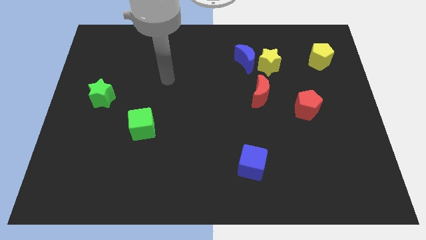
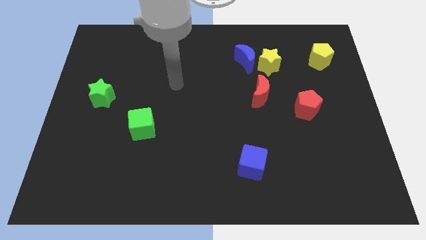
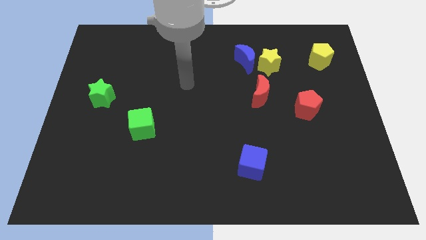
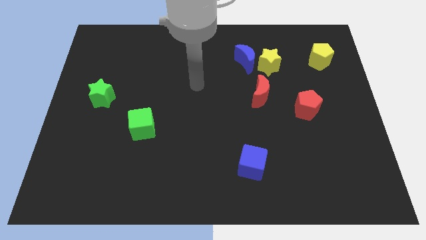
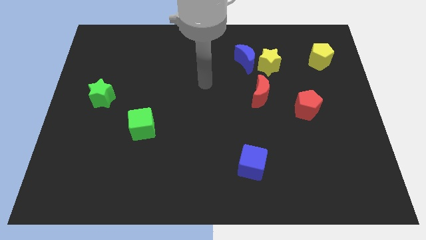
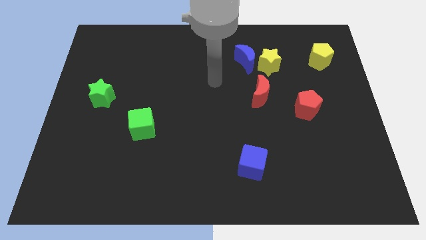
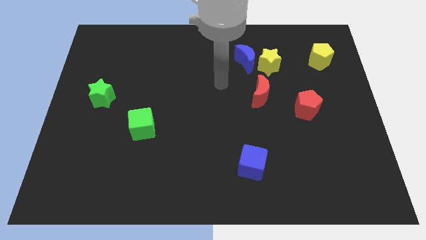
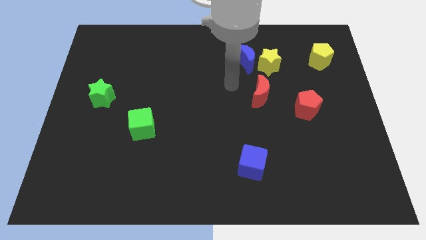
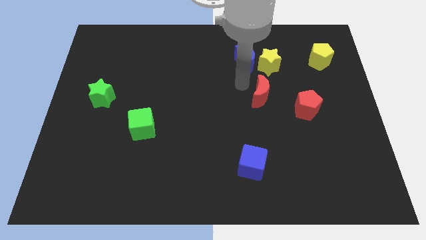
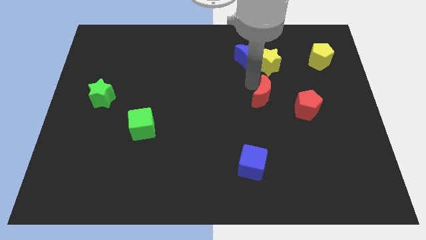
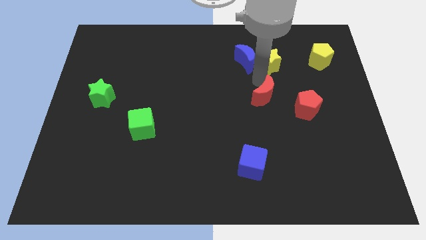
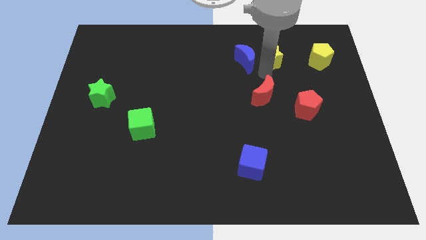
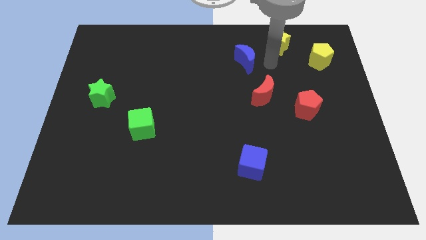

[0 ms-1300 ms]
move the blue moon away from the yellow star

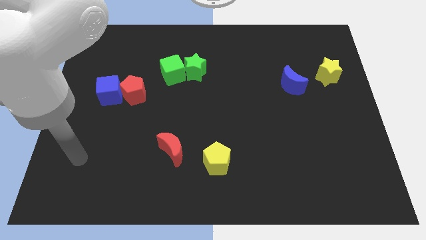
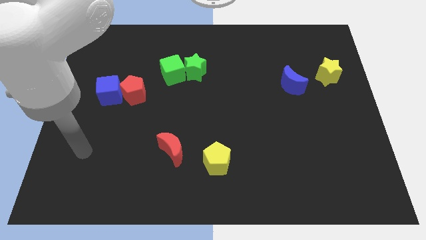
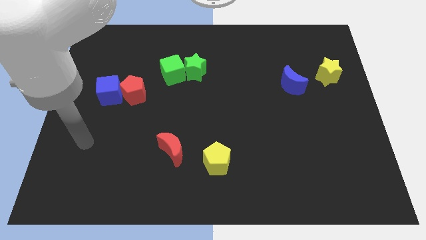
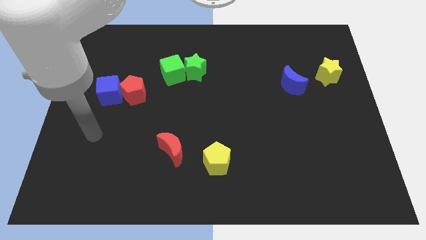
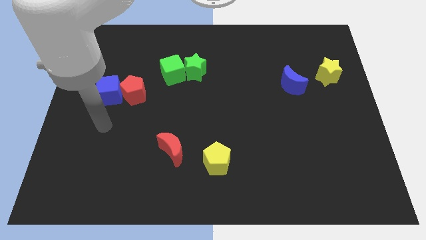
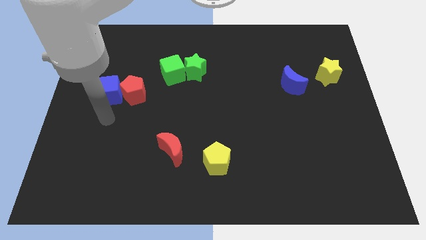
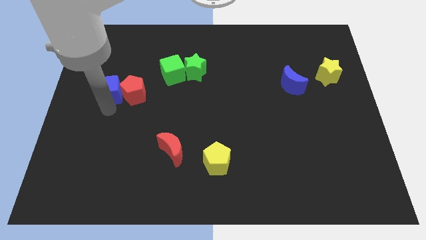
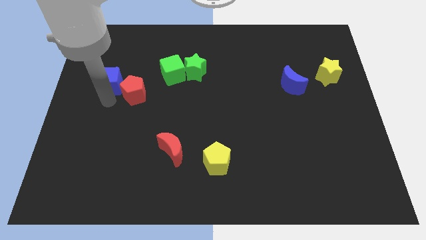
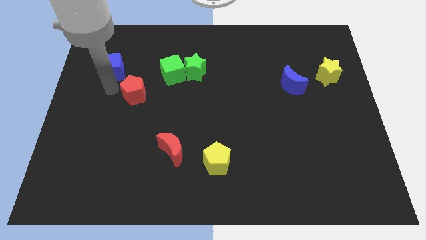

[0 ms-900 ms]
pull the red pentagon apart from the blue cube

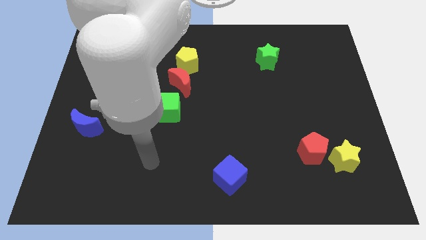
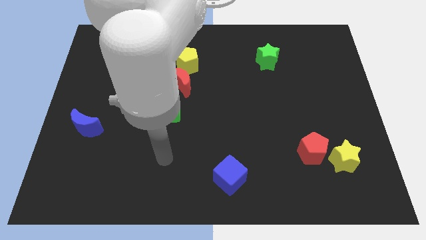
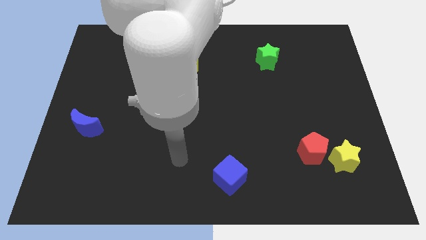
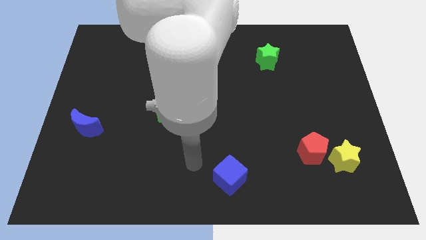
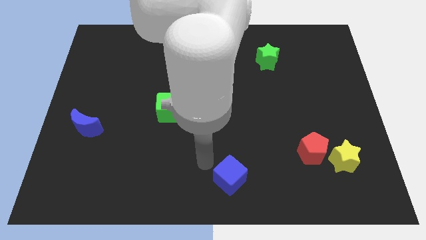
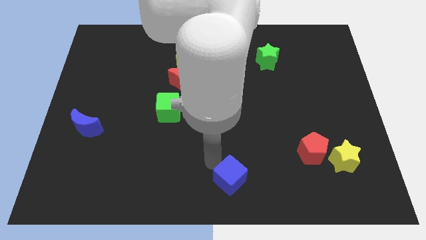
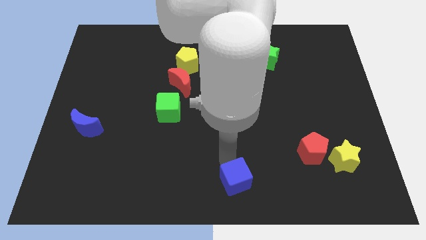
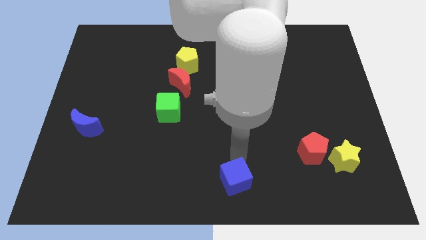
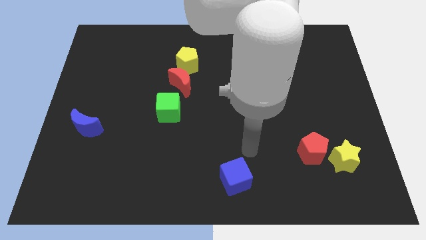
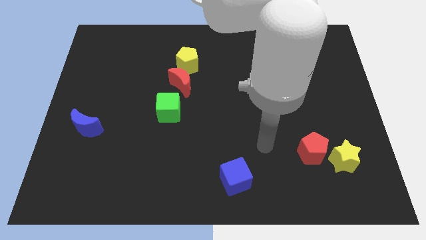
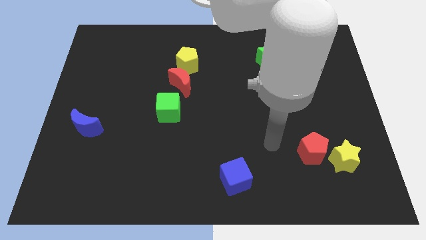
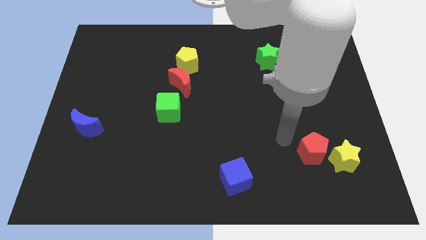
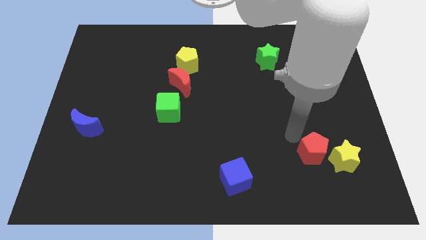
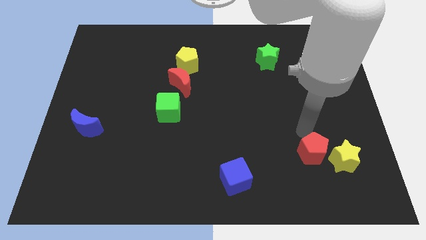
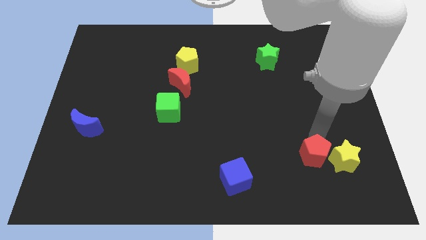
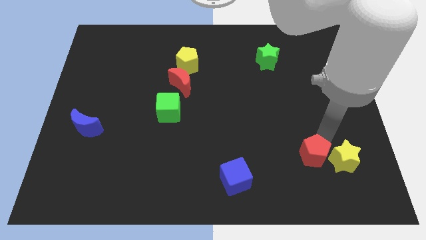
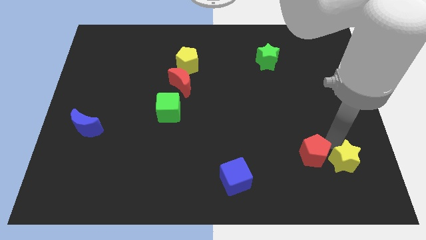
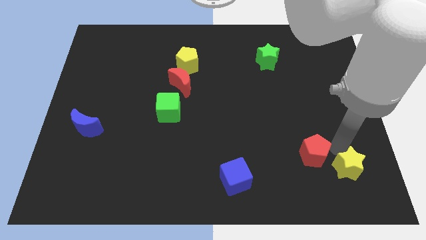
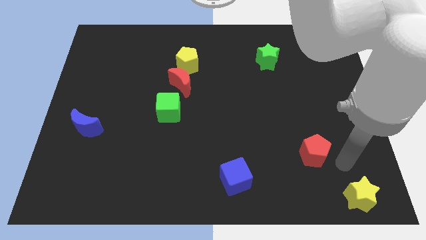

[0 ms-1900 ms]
pull the red pentagon apart from the yellow star

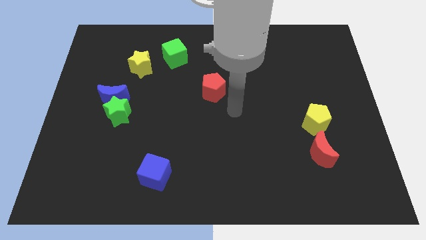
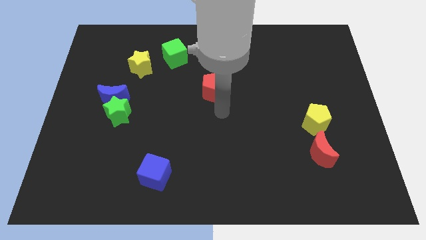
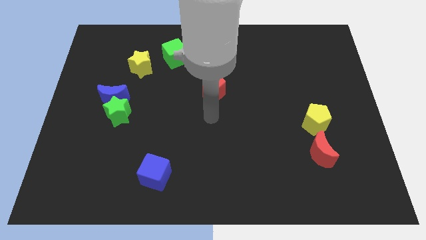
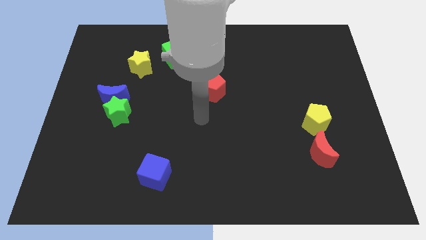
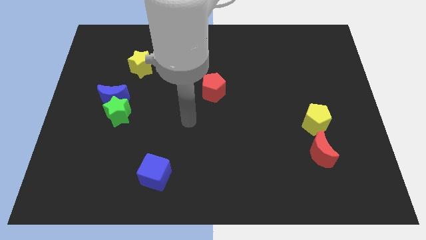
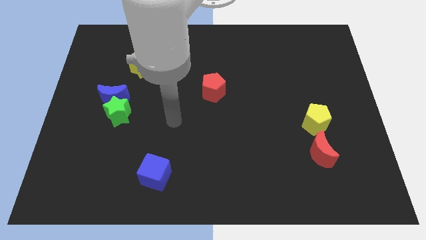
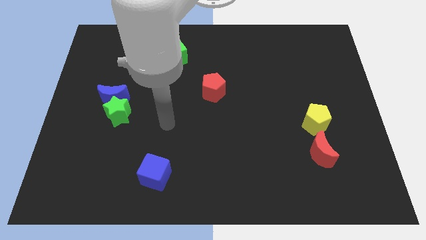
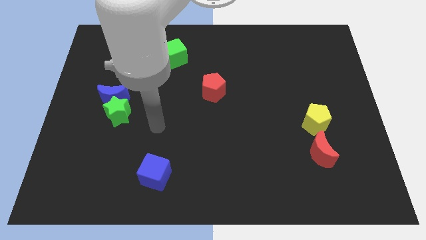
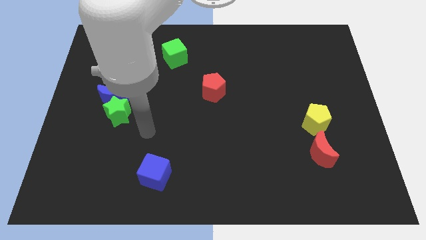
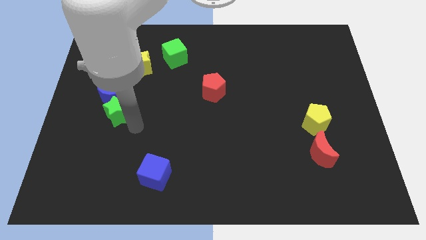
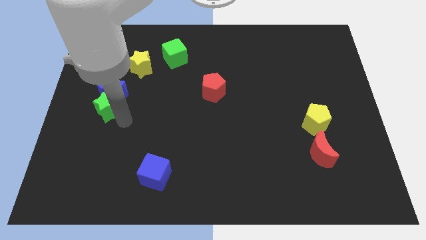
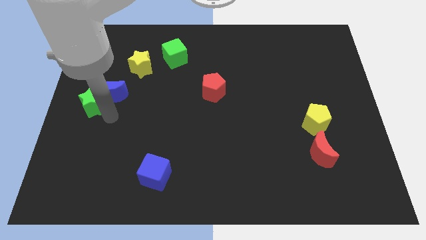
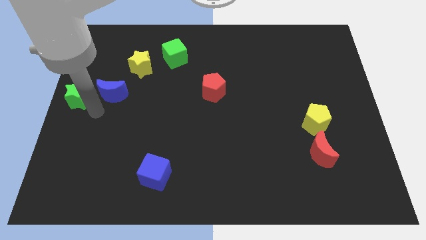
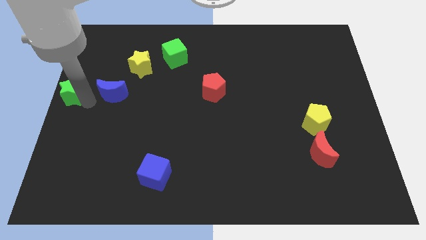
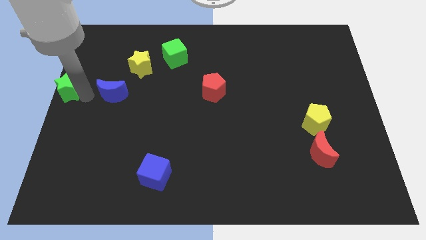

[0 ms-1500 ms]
move the blue moon away from the green star

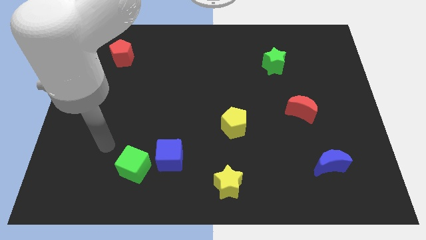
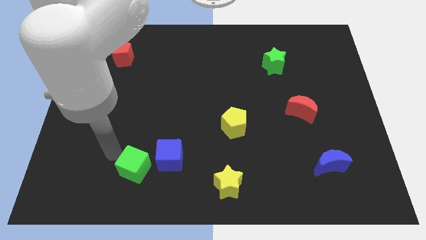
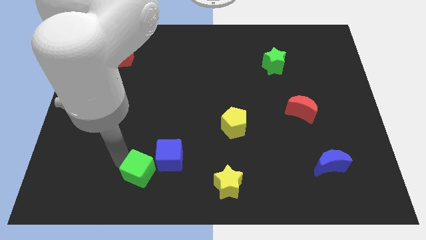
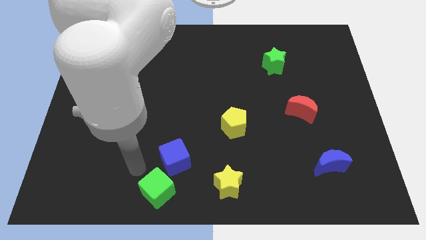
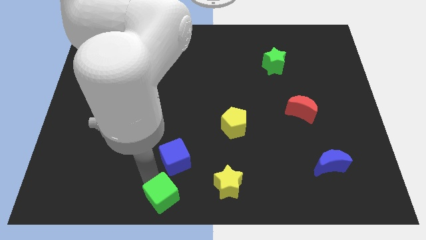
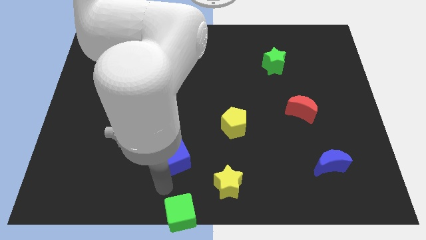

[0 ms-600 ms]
separate the blue cube from the green cube

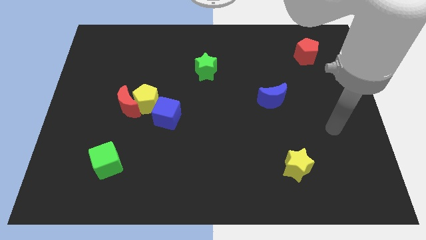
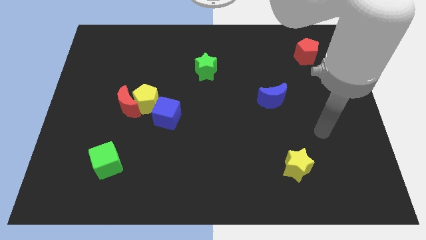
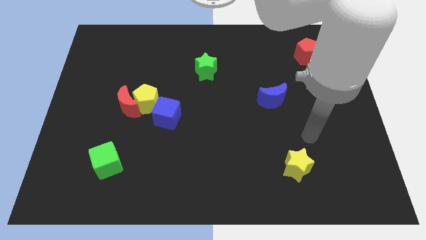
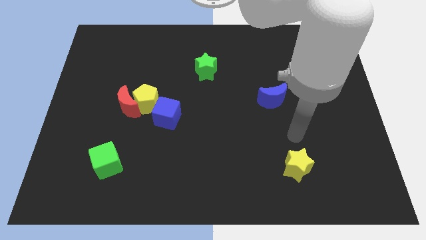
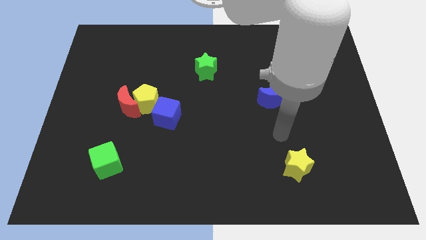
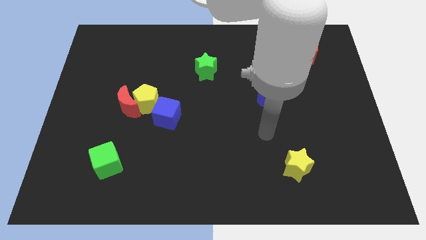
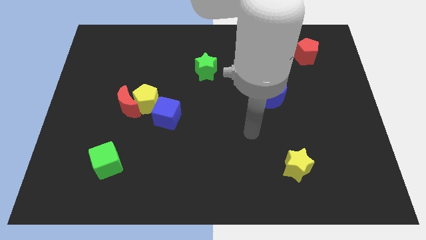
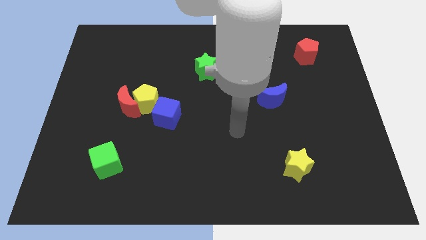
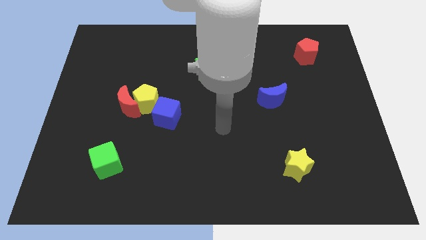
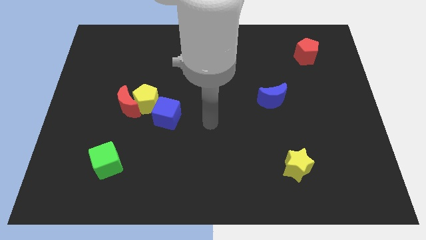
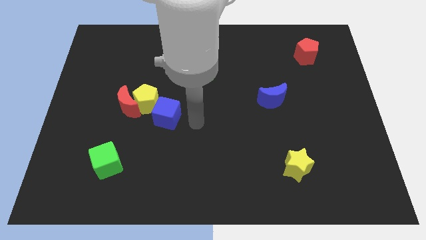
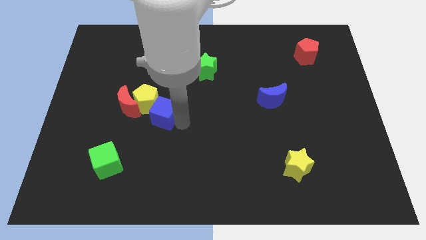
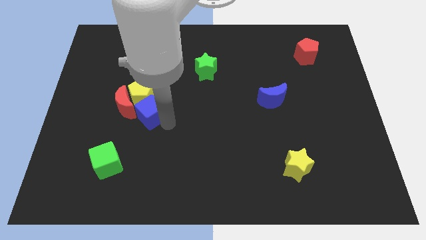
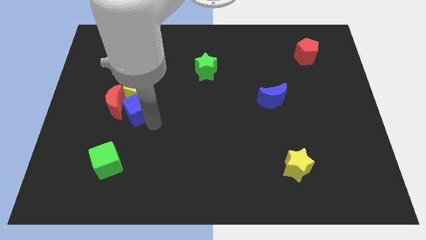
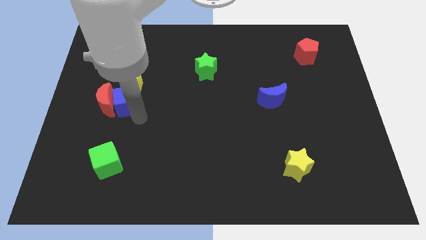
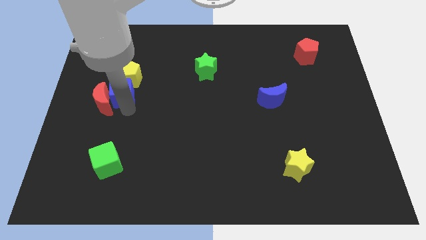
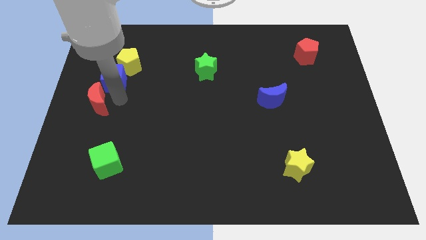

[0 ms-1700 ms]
pull the yellow pentagon apart from the red moon and blue cube

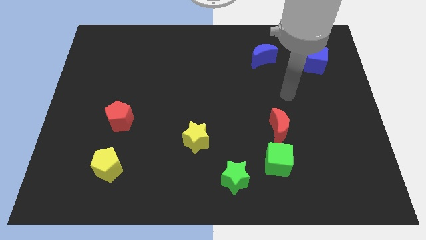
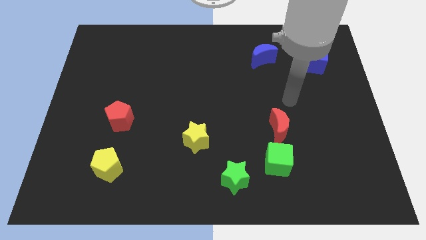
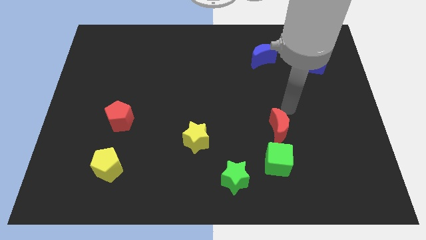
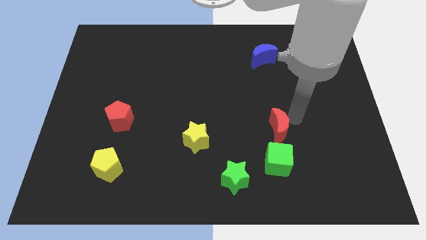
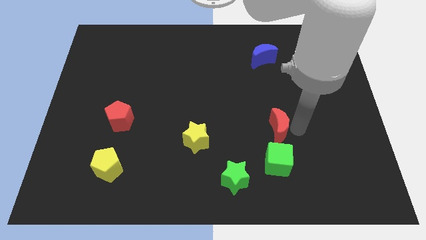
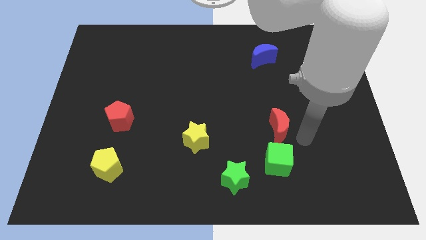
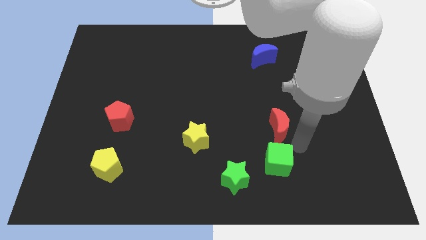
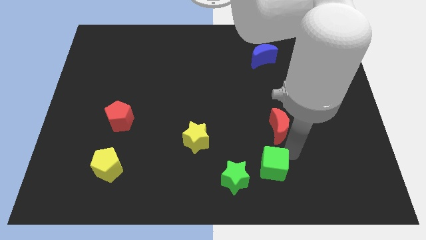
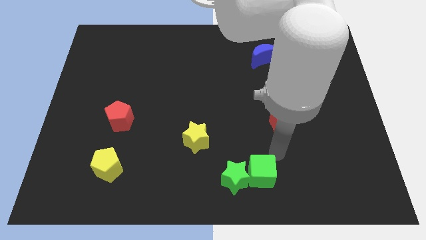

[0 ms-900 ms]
separate the red moon from the green cube

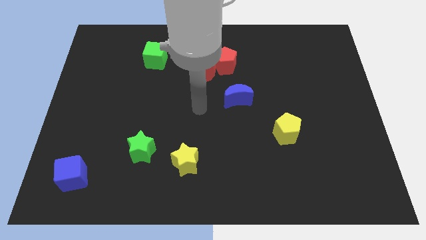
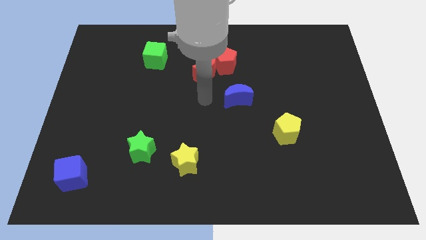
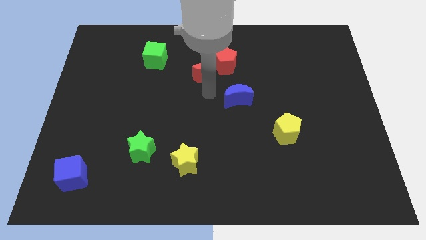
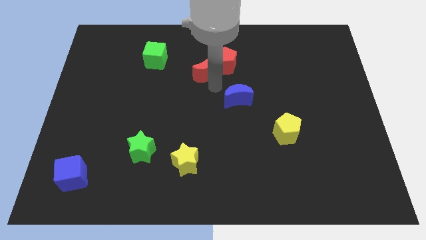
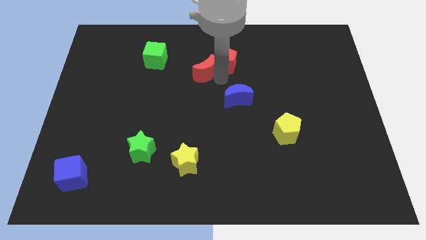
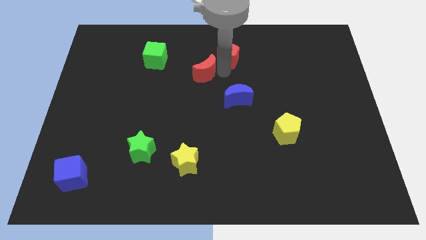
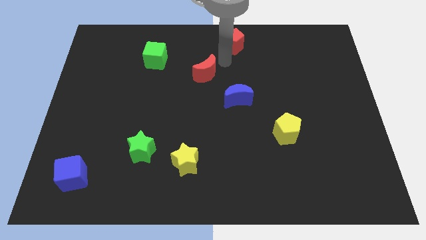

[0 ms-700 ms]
separate the red moon from the red pentagon
